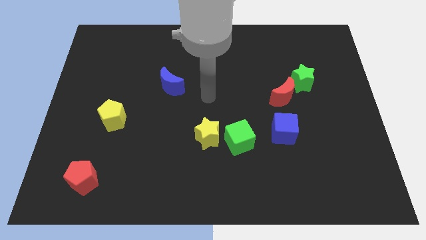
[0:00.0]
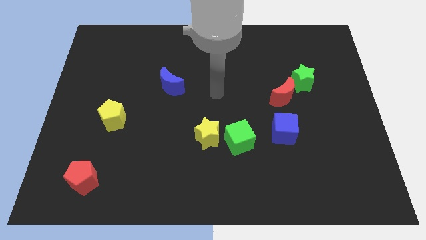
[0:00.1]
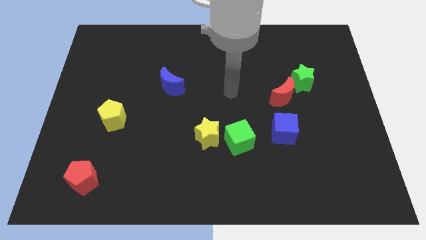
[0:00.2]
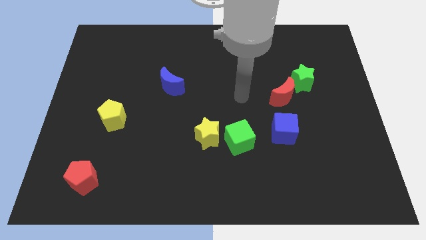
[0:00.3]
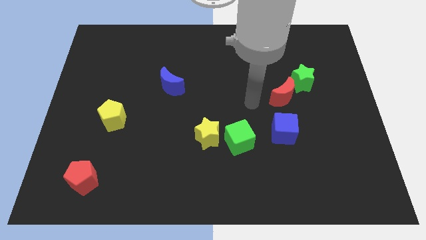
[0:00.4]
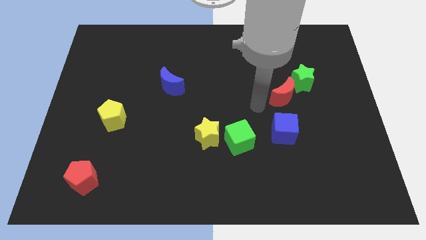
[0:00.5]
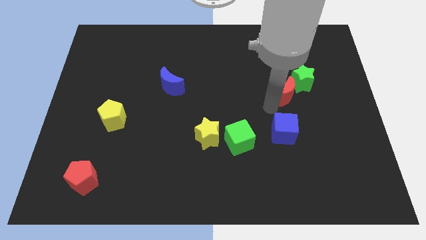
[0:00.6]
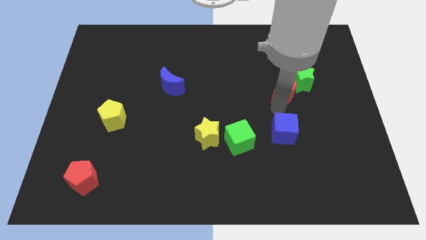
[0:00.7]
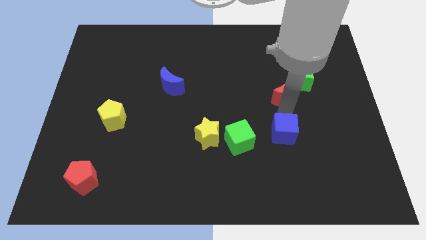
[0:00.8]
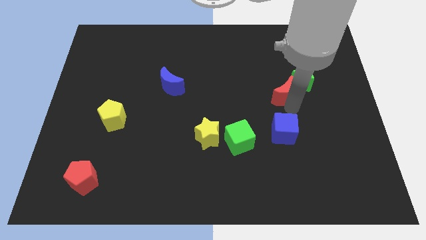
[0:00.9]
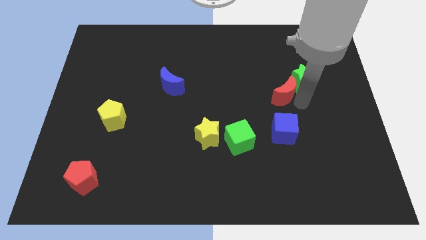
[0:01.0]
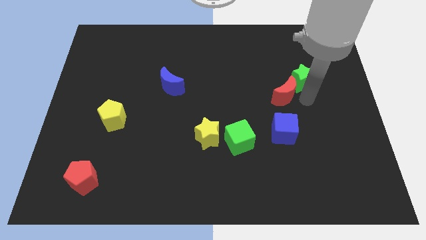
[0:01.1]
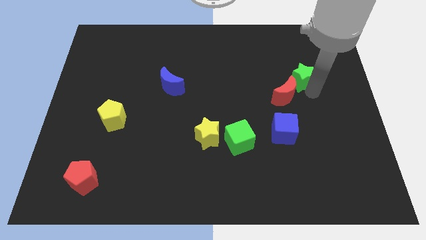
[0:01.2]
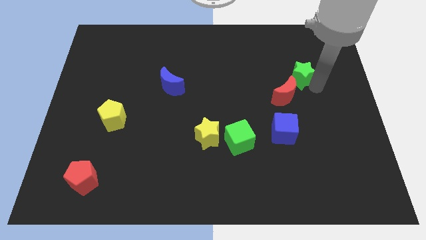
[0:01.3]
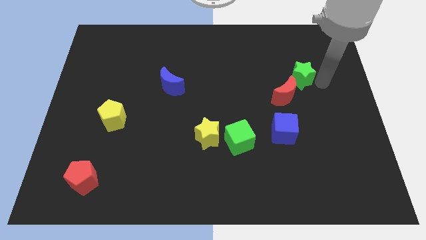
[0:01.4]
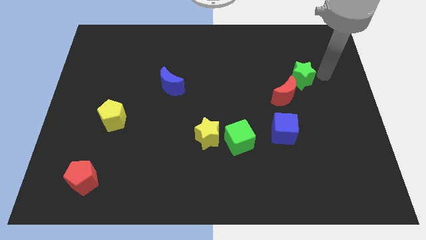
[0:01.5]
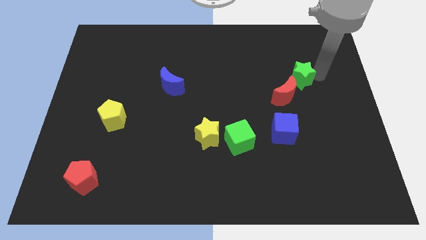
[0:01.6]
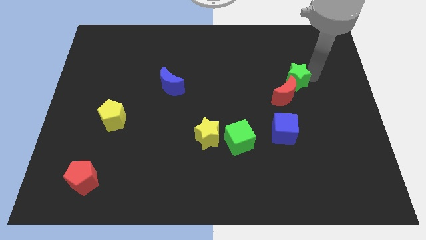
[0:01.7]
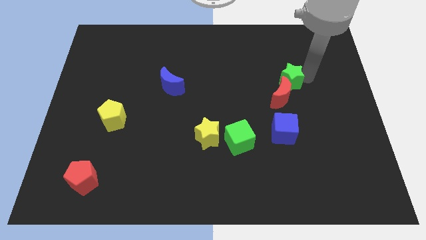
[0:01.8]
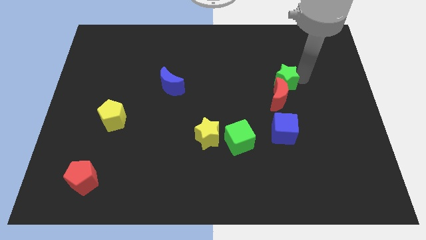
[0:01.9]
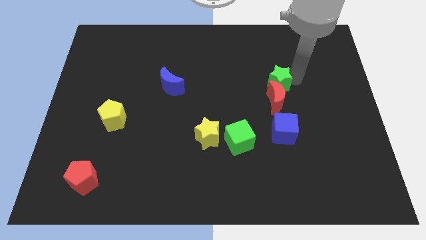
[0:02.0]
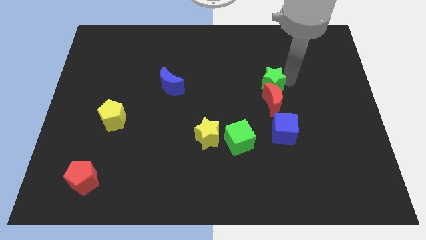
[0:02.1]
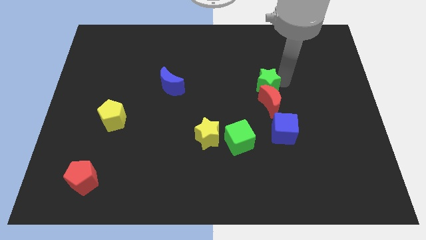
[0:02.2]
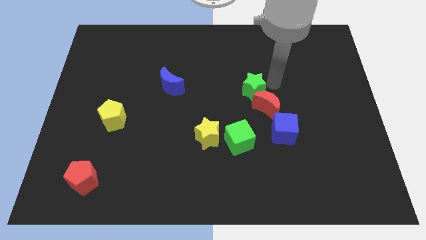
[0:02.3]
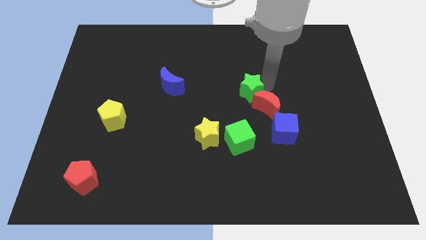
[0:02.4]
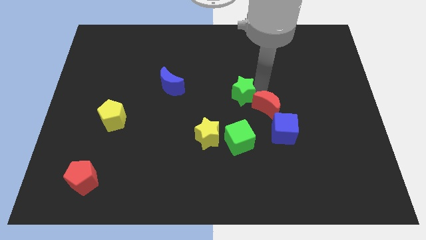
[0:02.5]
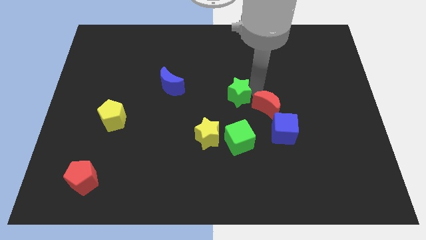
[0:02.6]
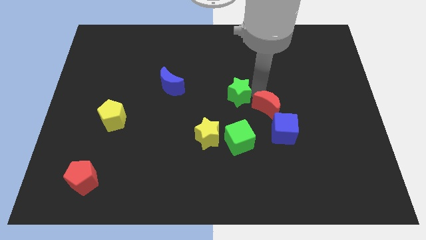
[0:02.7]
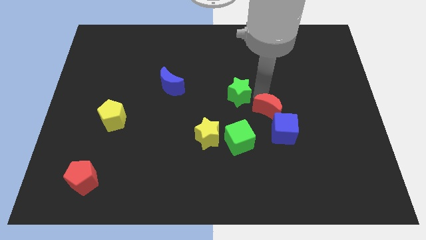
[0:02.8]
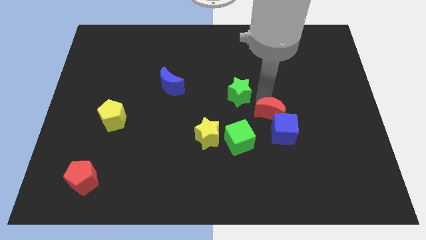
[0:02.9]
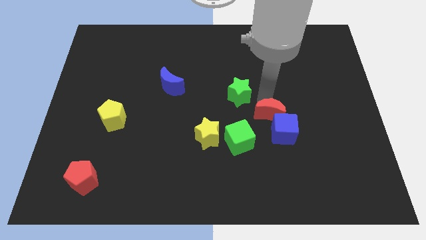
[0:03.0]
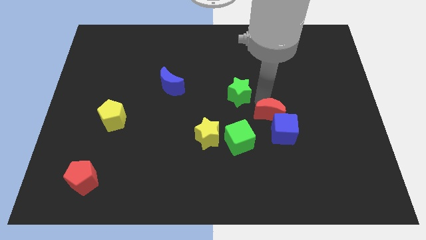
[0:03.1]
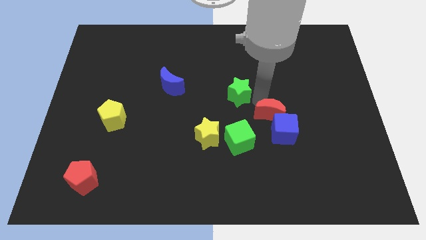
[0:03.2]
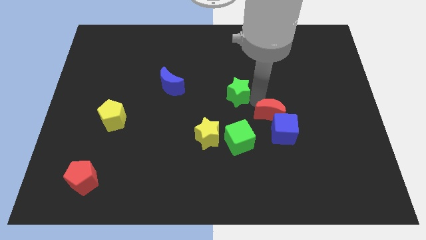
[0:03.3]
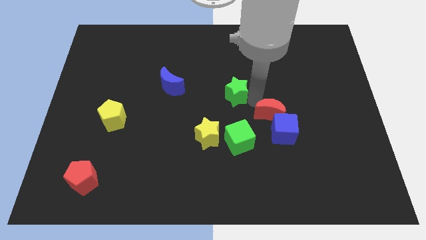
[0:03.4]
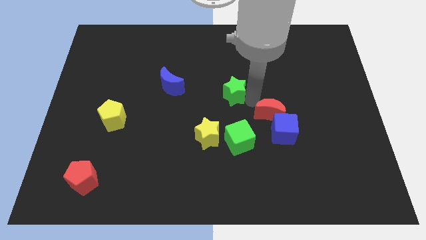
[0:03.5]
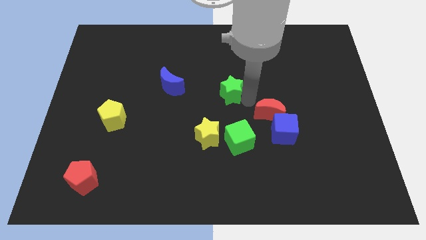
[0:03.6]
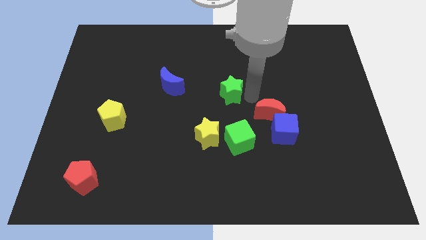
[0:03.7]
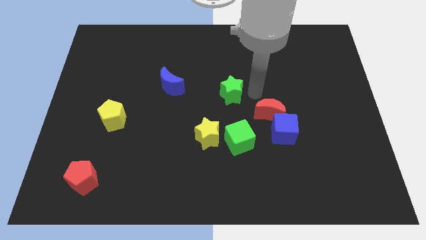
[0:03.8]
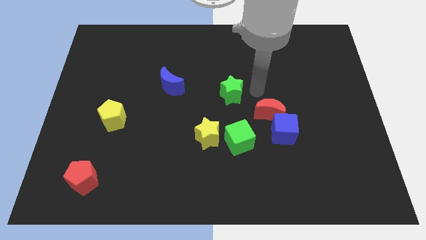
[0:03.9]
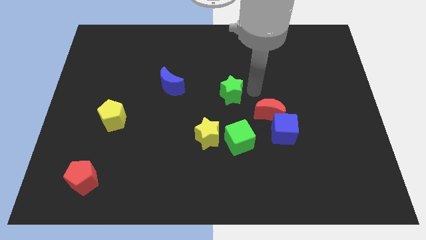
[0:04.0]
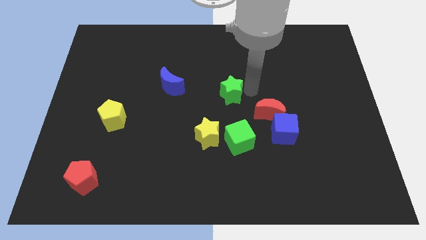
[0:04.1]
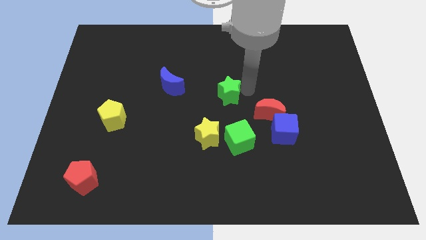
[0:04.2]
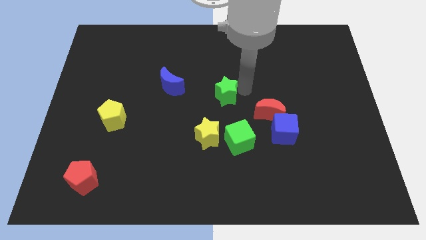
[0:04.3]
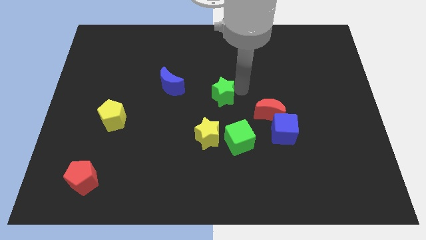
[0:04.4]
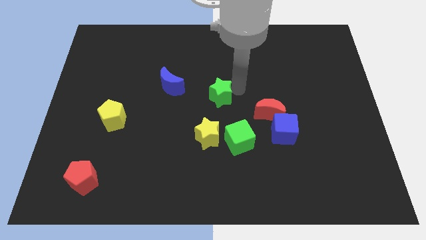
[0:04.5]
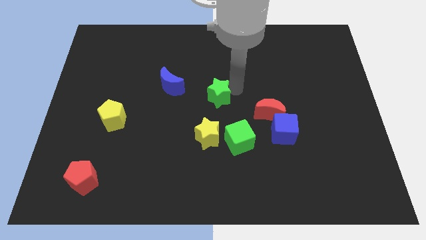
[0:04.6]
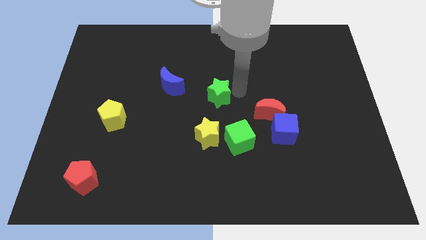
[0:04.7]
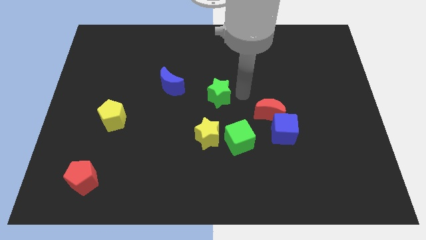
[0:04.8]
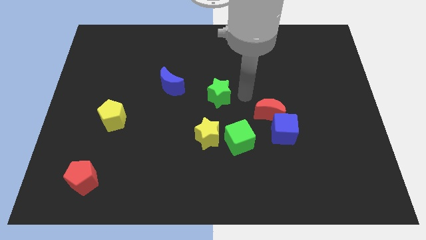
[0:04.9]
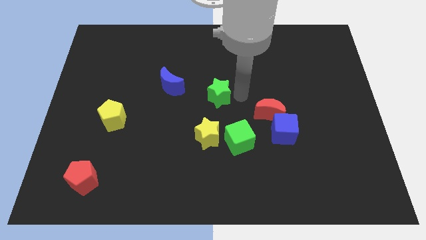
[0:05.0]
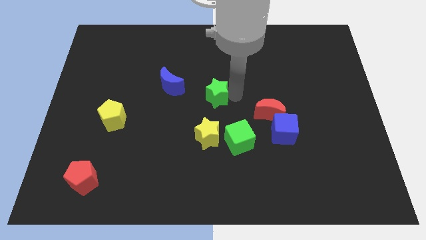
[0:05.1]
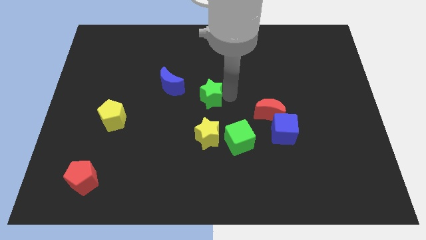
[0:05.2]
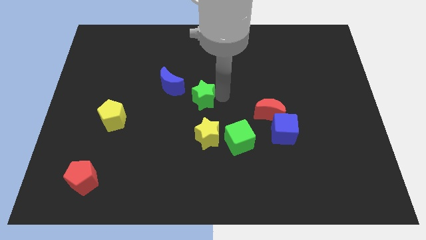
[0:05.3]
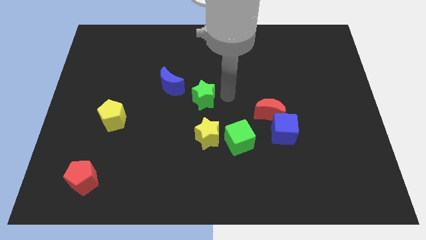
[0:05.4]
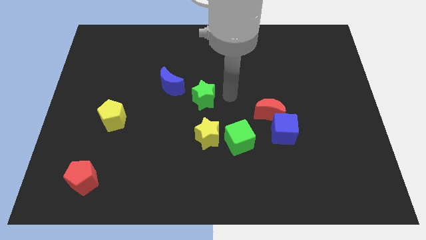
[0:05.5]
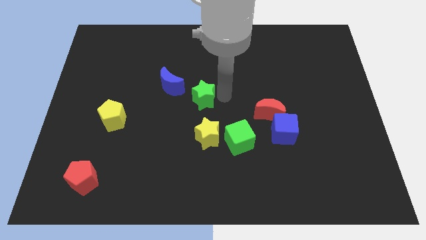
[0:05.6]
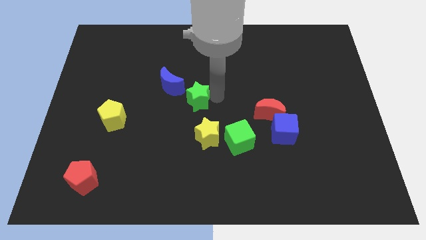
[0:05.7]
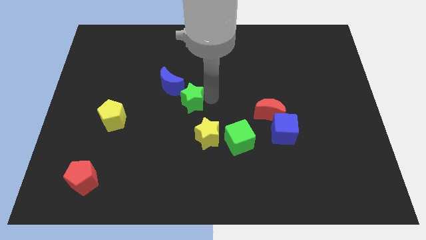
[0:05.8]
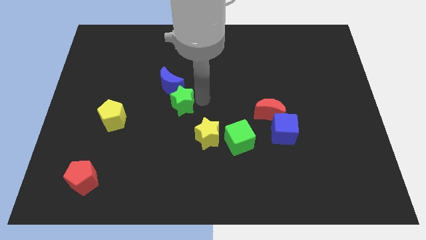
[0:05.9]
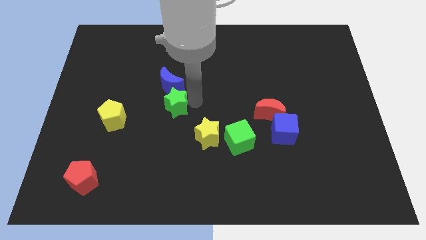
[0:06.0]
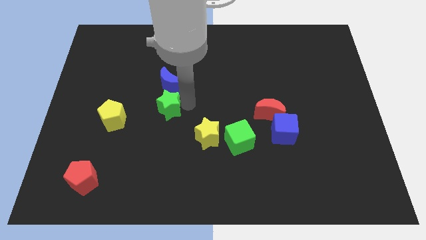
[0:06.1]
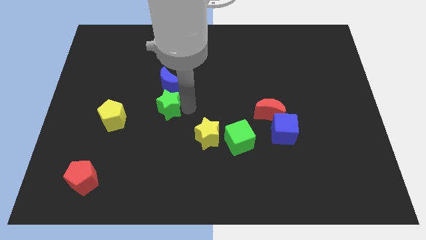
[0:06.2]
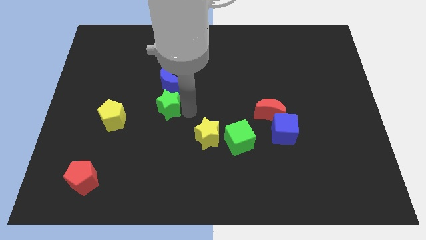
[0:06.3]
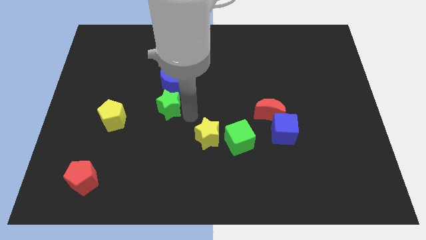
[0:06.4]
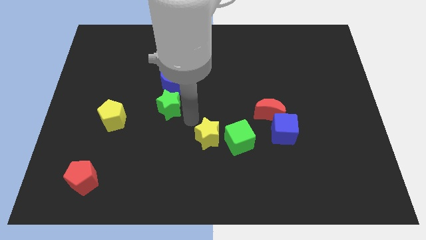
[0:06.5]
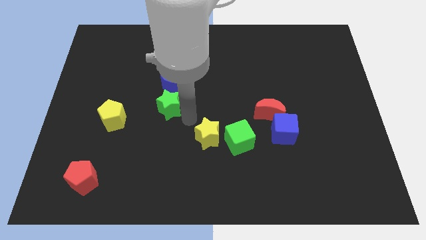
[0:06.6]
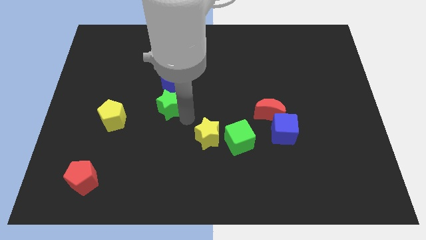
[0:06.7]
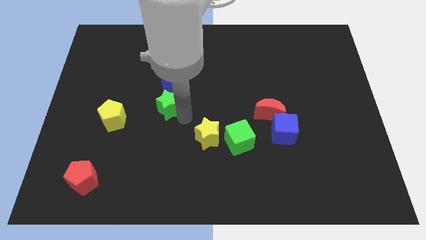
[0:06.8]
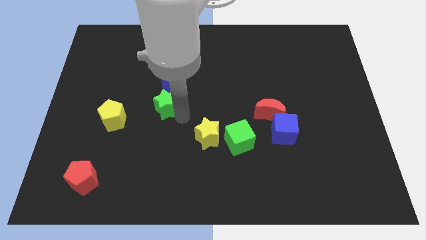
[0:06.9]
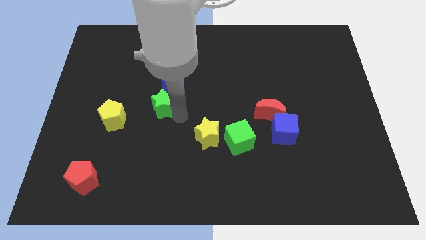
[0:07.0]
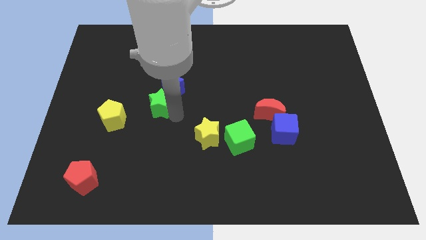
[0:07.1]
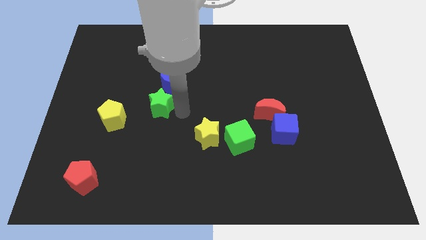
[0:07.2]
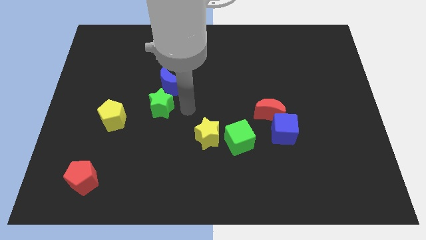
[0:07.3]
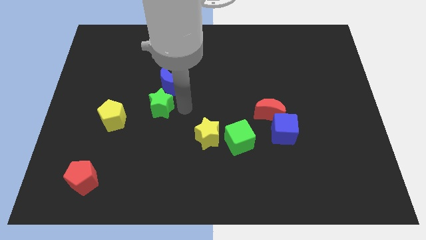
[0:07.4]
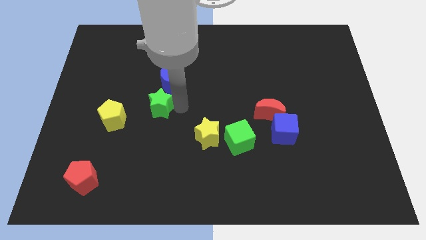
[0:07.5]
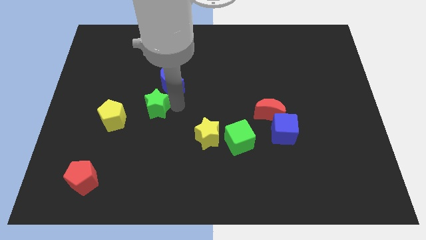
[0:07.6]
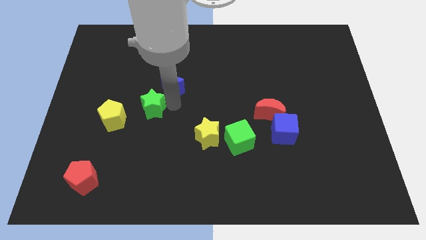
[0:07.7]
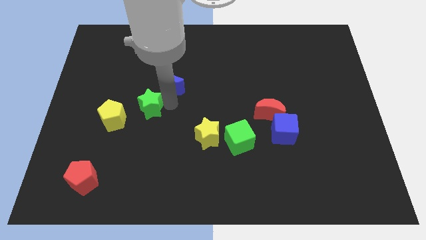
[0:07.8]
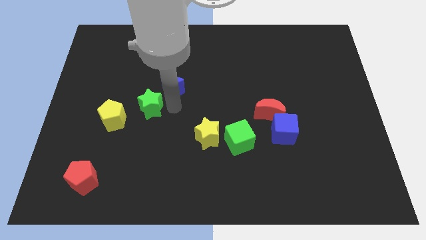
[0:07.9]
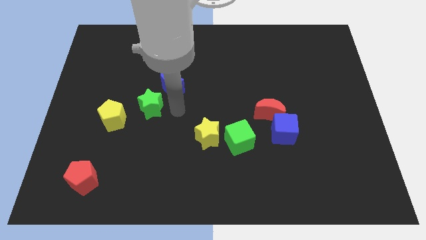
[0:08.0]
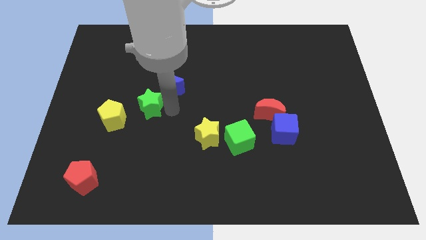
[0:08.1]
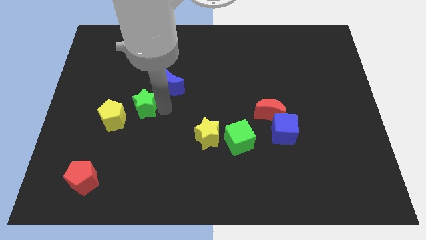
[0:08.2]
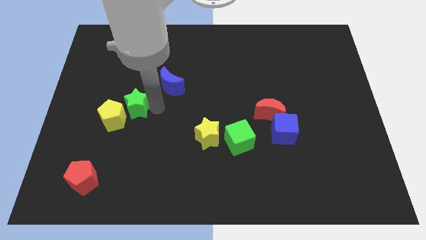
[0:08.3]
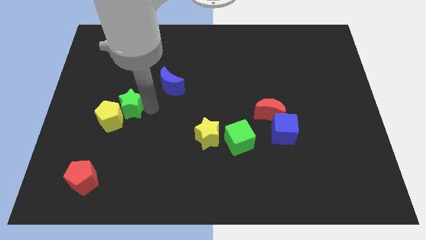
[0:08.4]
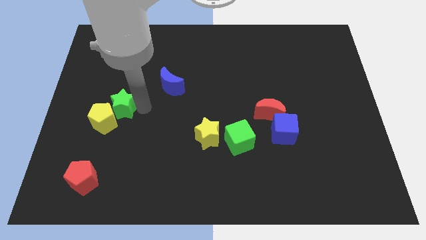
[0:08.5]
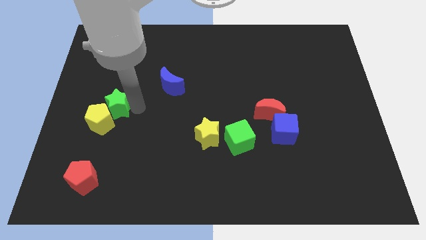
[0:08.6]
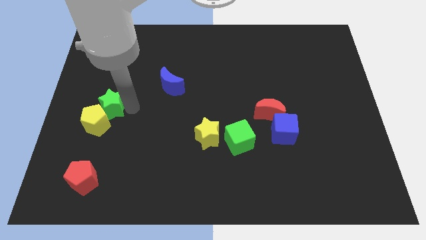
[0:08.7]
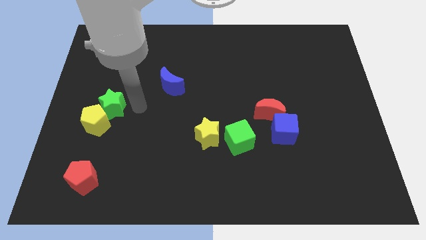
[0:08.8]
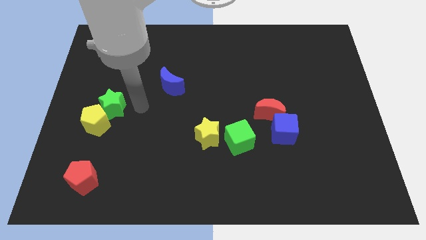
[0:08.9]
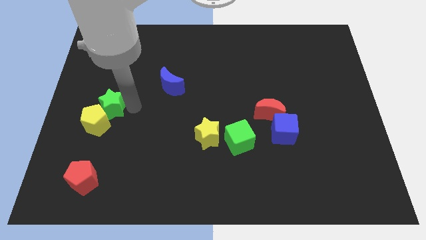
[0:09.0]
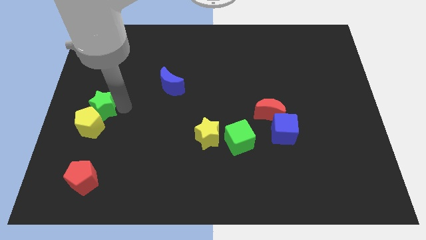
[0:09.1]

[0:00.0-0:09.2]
put the green star to the left side of the board
